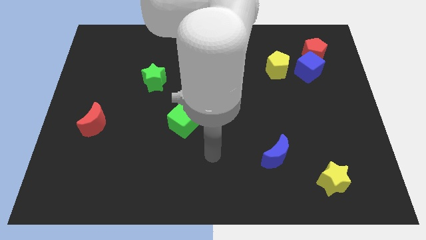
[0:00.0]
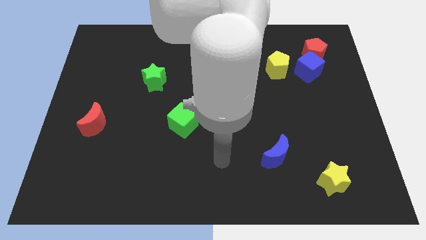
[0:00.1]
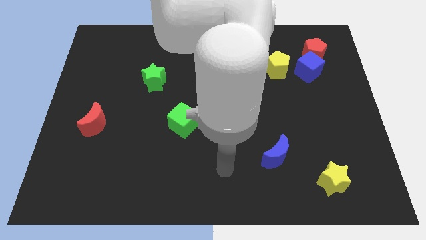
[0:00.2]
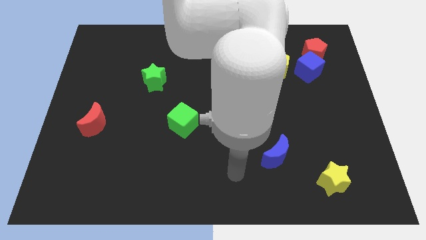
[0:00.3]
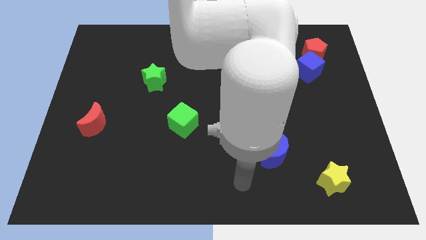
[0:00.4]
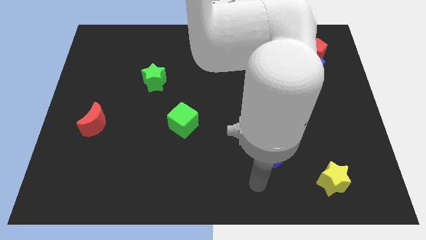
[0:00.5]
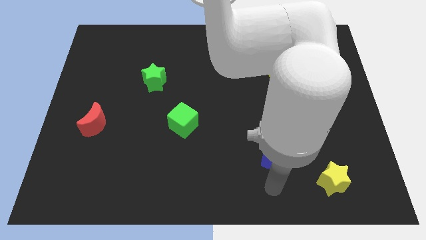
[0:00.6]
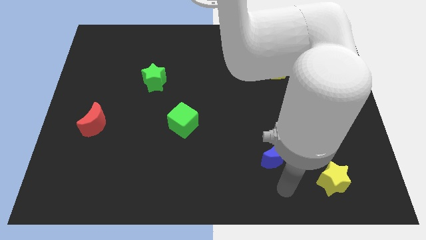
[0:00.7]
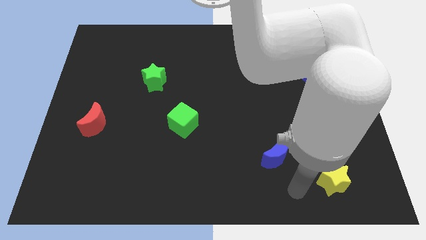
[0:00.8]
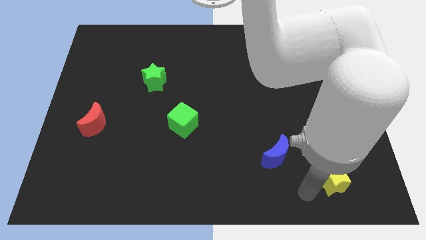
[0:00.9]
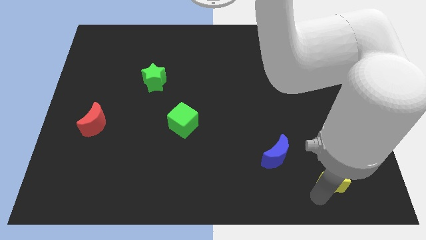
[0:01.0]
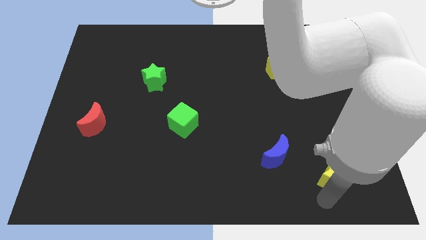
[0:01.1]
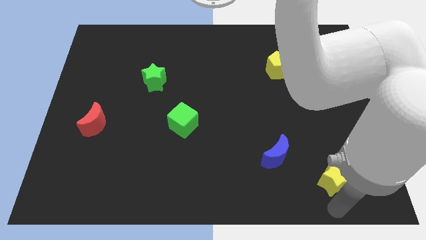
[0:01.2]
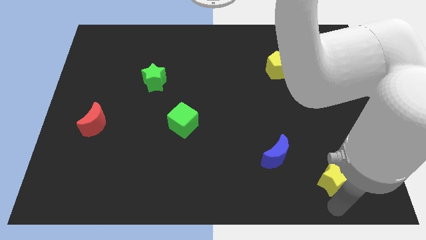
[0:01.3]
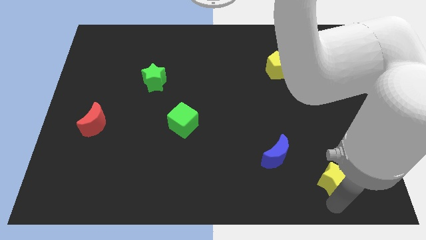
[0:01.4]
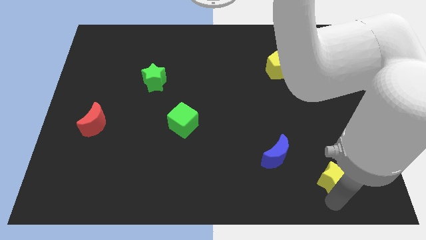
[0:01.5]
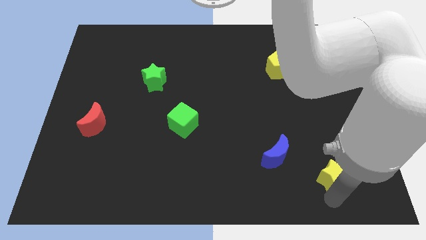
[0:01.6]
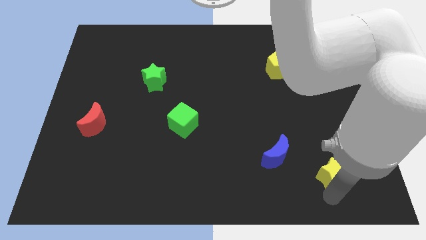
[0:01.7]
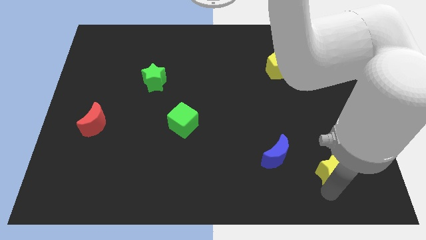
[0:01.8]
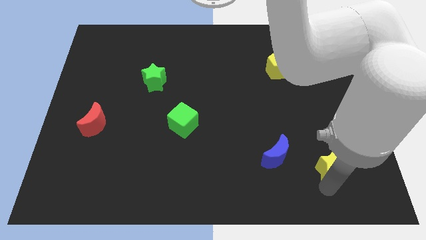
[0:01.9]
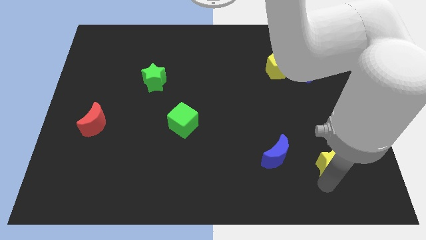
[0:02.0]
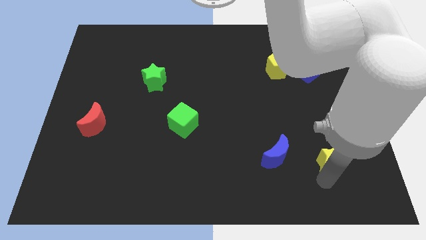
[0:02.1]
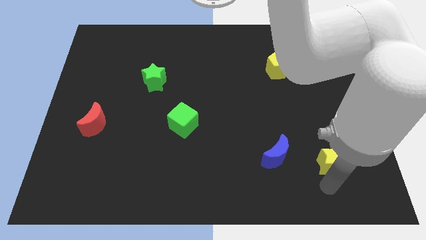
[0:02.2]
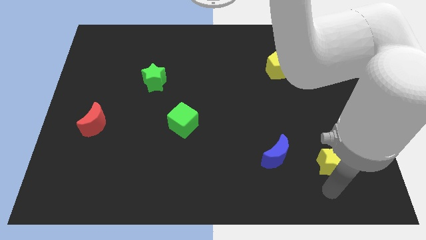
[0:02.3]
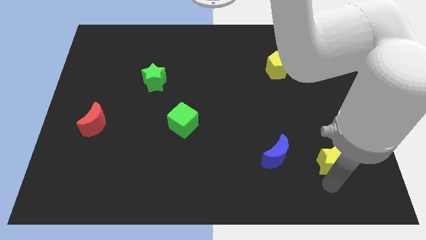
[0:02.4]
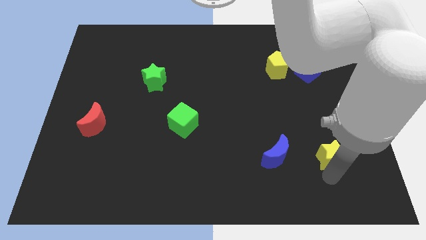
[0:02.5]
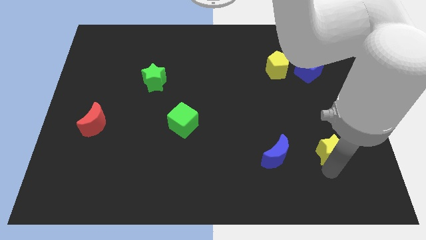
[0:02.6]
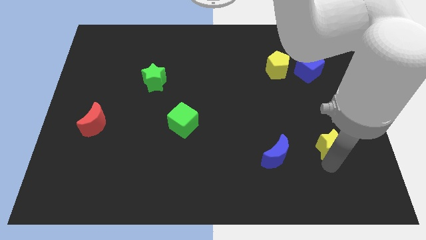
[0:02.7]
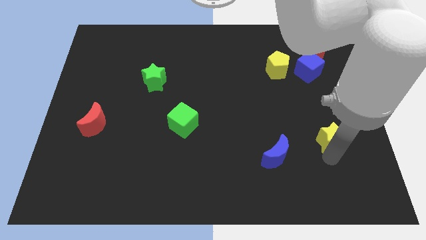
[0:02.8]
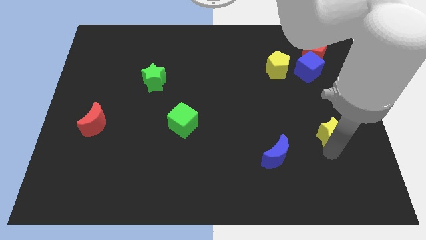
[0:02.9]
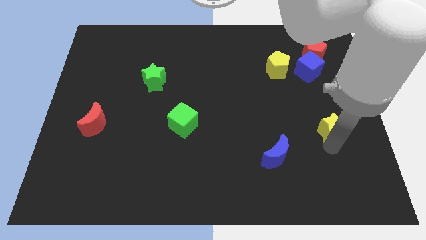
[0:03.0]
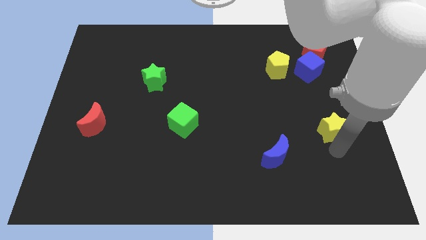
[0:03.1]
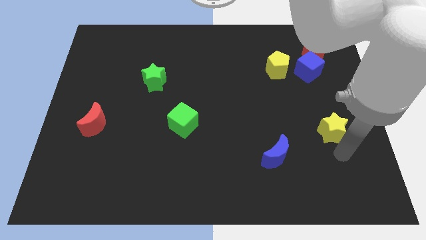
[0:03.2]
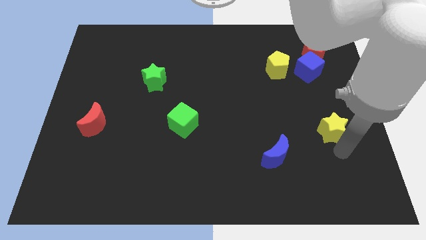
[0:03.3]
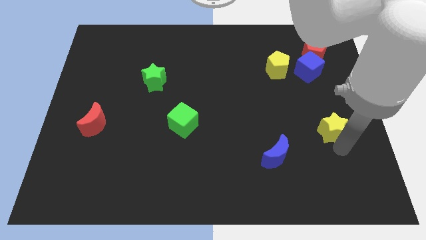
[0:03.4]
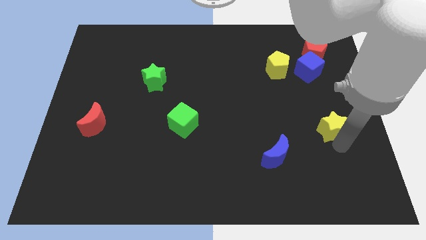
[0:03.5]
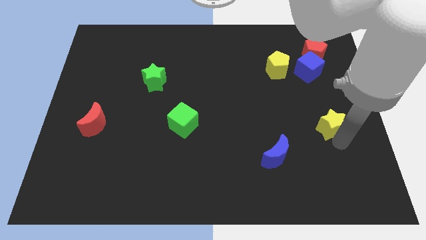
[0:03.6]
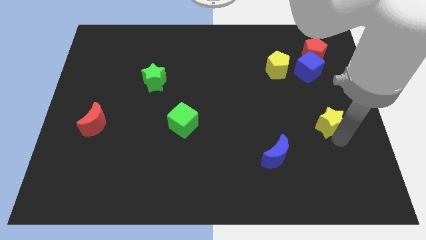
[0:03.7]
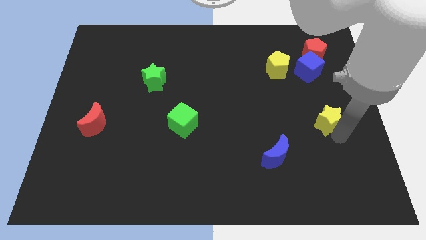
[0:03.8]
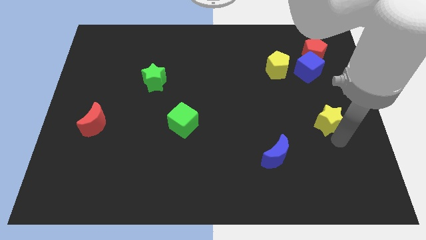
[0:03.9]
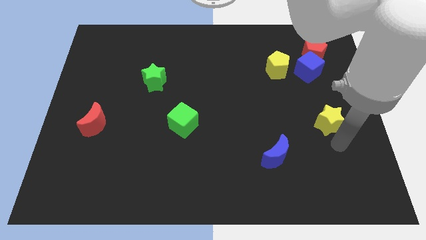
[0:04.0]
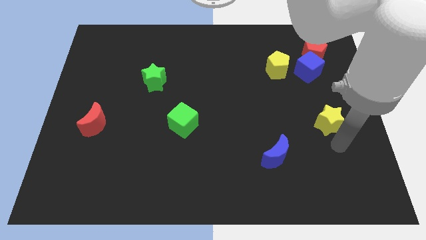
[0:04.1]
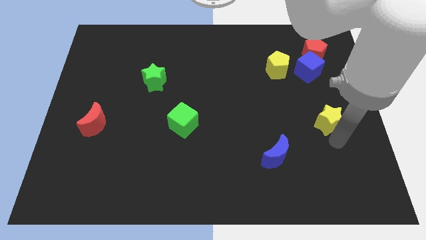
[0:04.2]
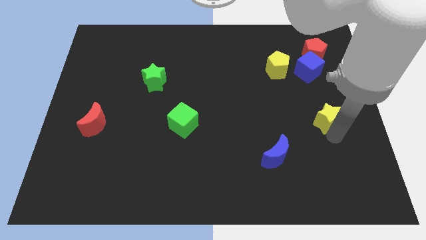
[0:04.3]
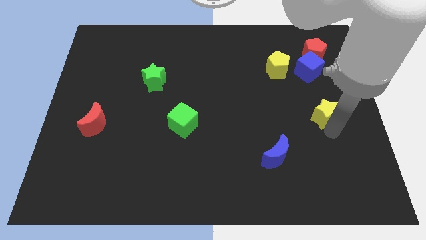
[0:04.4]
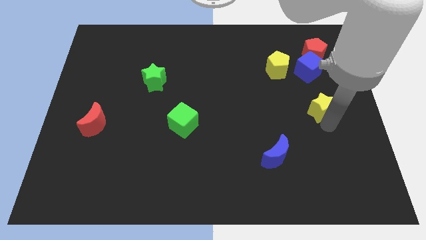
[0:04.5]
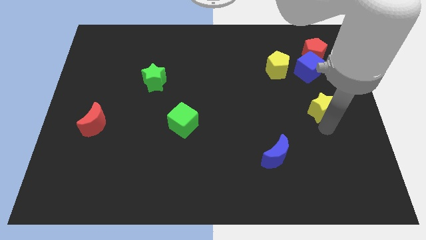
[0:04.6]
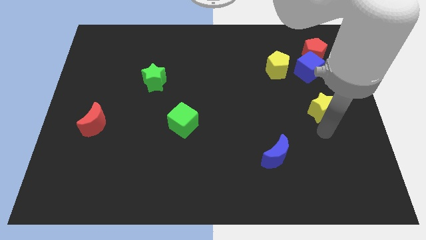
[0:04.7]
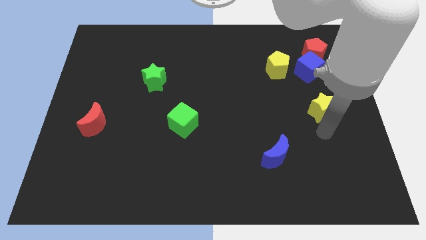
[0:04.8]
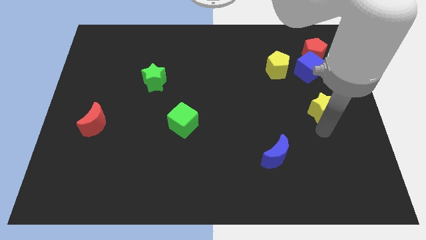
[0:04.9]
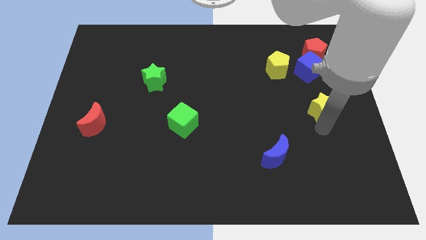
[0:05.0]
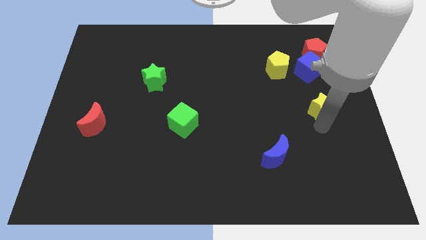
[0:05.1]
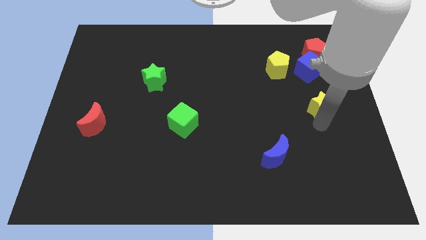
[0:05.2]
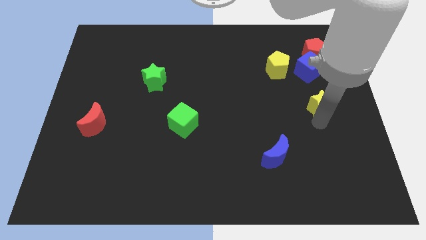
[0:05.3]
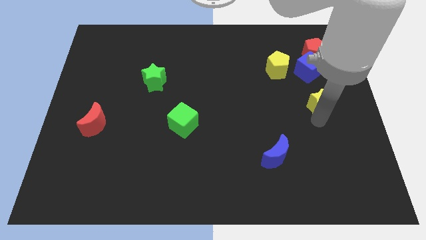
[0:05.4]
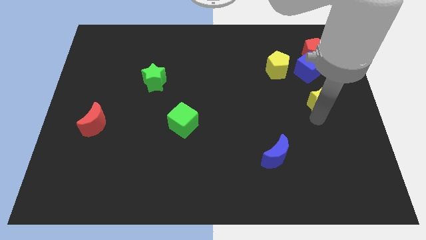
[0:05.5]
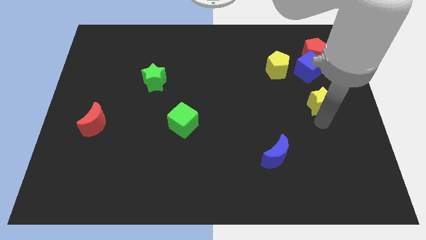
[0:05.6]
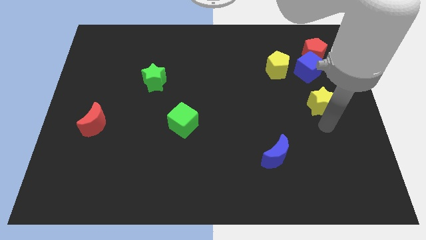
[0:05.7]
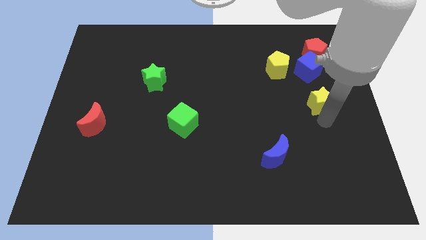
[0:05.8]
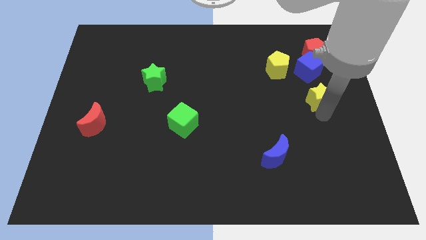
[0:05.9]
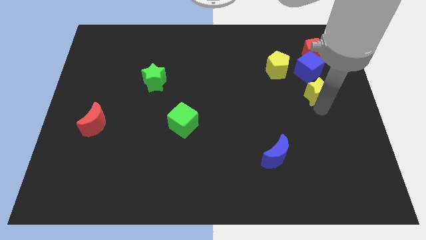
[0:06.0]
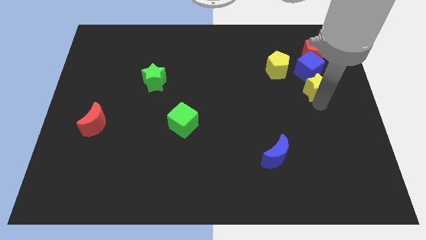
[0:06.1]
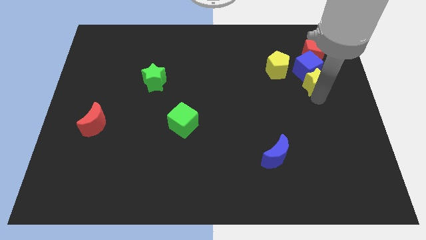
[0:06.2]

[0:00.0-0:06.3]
slide the yellow star towards the blue cube

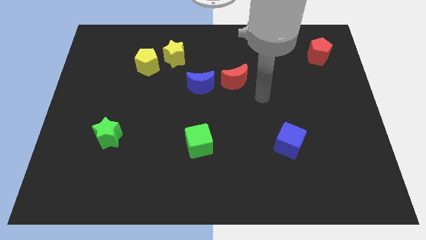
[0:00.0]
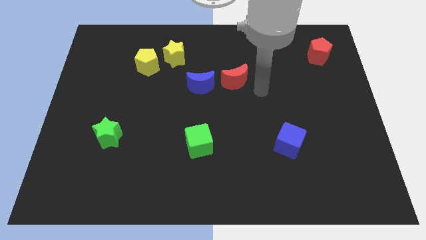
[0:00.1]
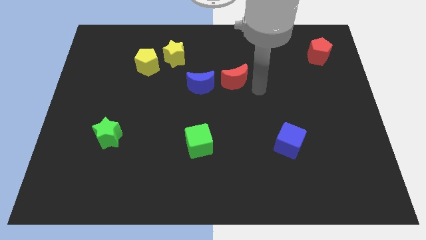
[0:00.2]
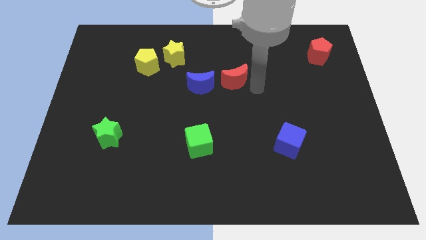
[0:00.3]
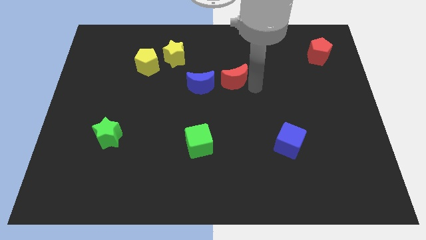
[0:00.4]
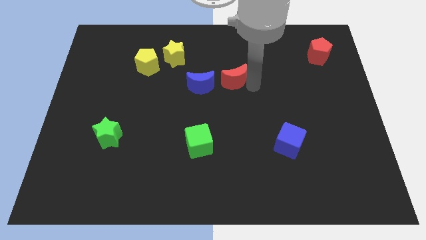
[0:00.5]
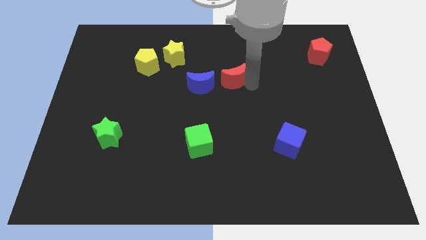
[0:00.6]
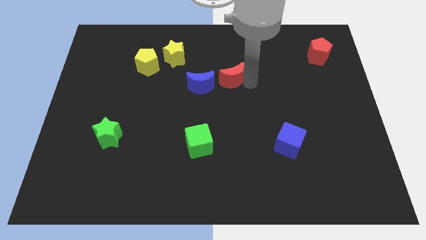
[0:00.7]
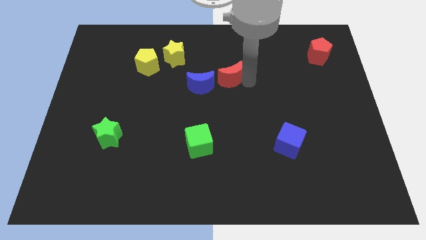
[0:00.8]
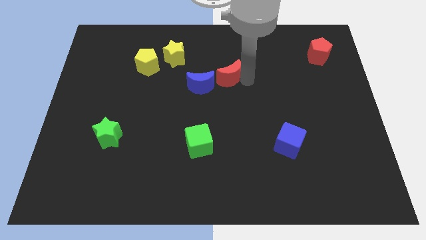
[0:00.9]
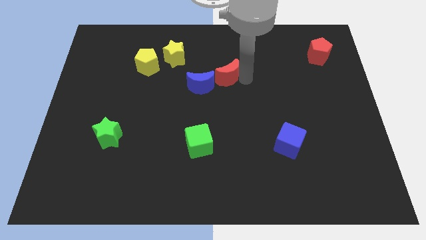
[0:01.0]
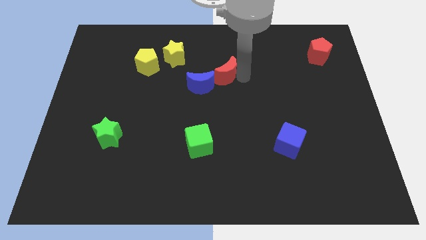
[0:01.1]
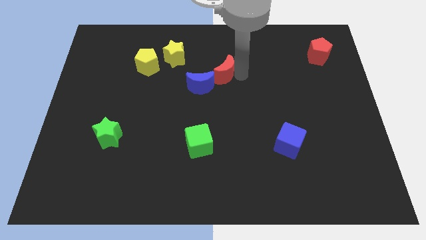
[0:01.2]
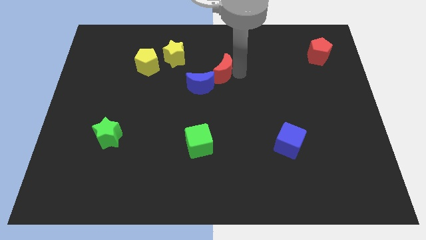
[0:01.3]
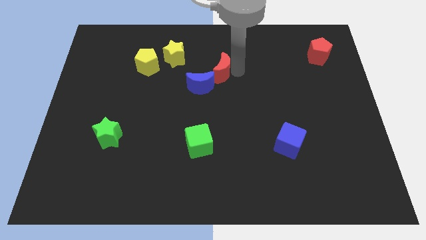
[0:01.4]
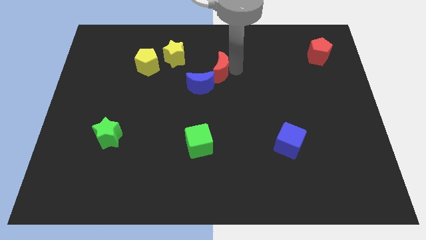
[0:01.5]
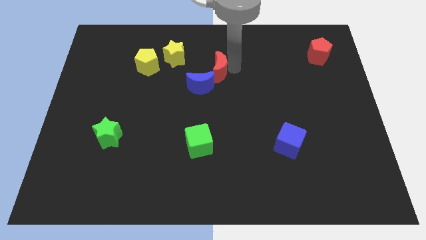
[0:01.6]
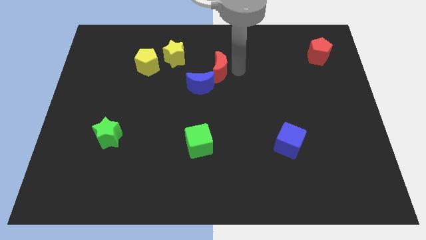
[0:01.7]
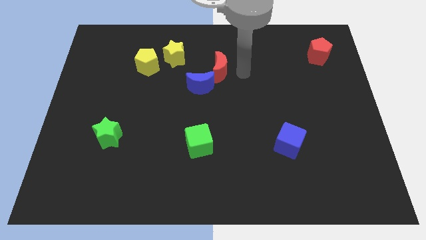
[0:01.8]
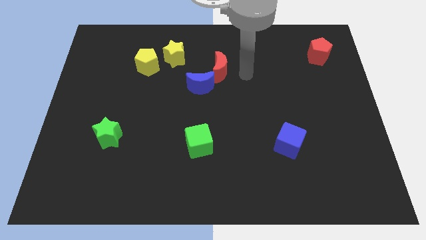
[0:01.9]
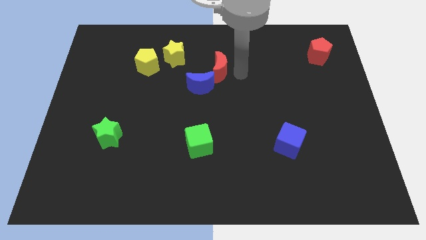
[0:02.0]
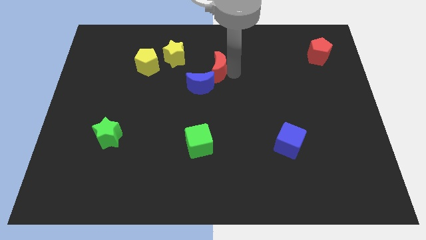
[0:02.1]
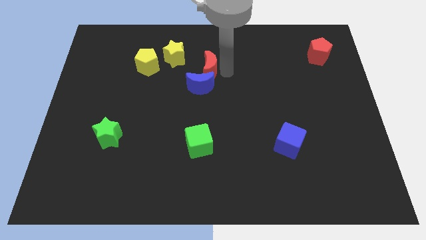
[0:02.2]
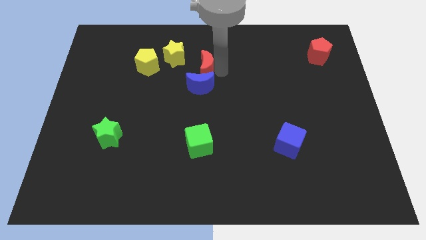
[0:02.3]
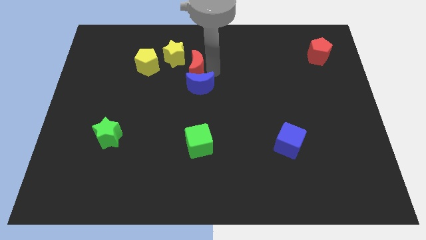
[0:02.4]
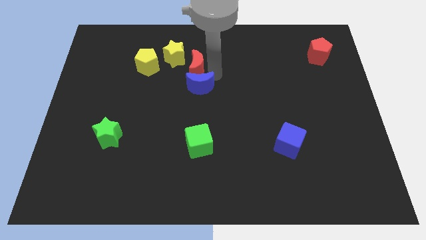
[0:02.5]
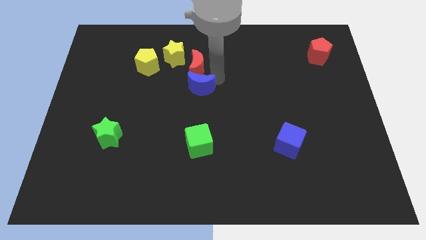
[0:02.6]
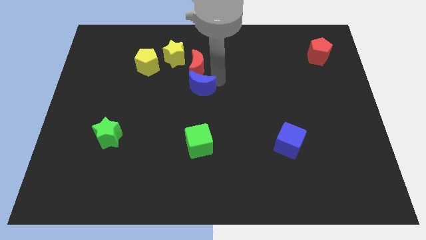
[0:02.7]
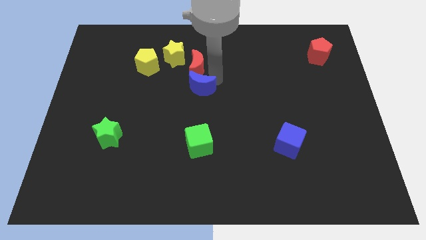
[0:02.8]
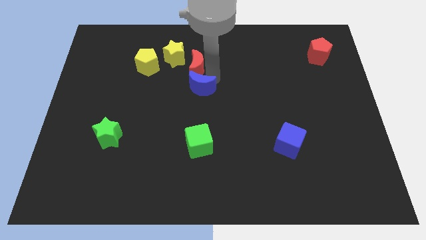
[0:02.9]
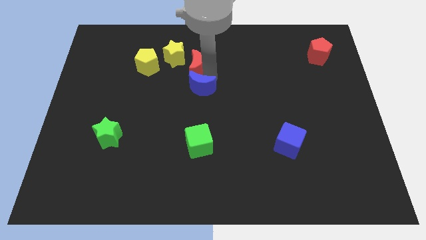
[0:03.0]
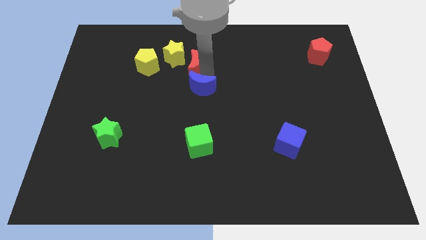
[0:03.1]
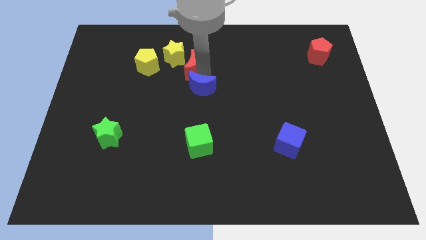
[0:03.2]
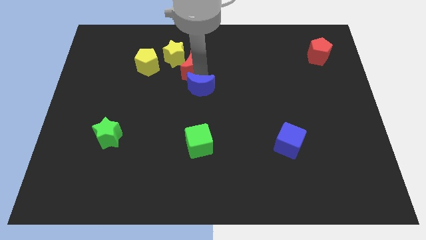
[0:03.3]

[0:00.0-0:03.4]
put the red moon next to the yellow star
